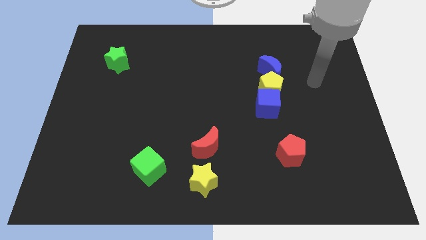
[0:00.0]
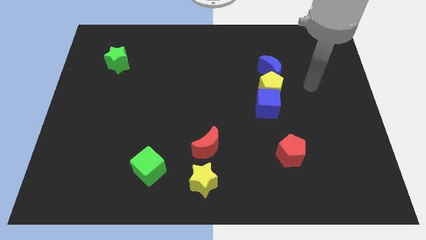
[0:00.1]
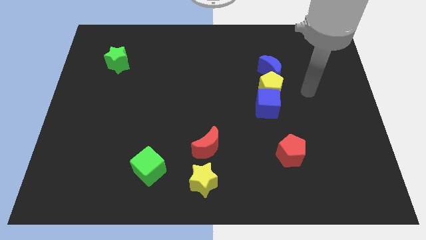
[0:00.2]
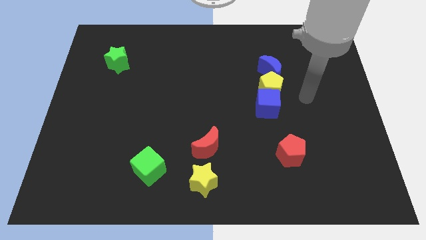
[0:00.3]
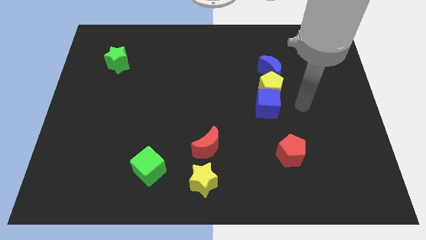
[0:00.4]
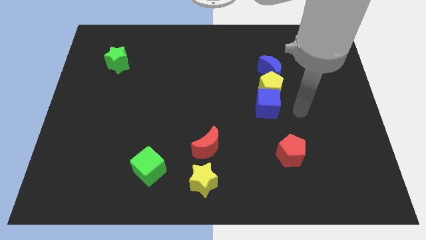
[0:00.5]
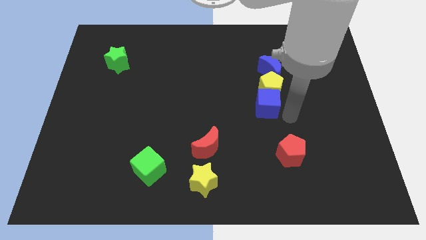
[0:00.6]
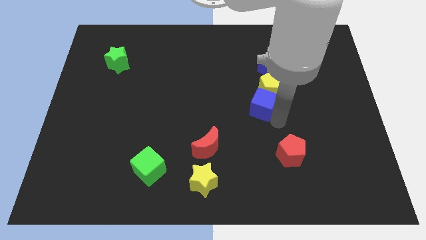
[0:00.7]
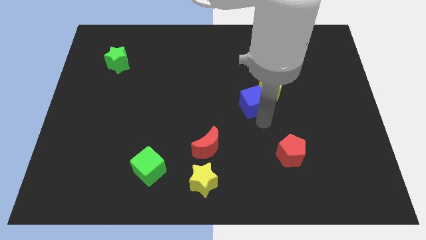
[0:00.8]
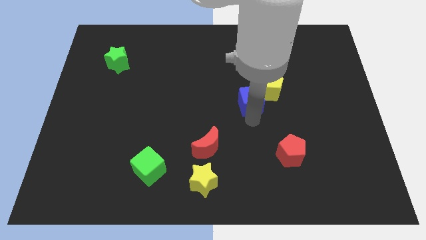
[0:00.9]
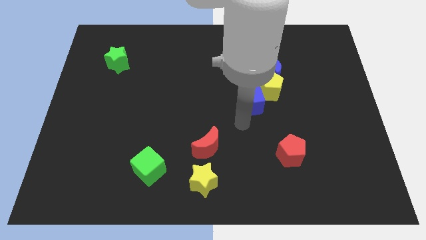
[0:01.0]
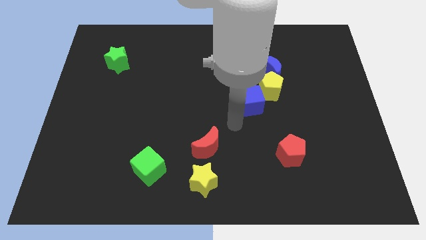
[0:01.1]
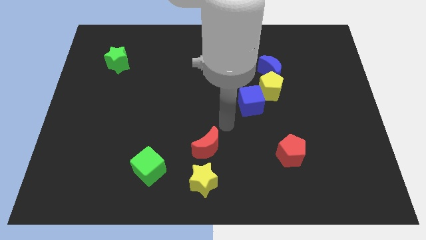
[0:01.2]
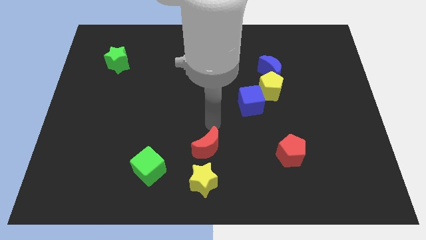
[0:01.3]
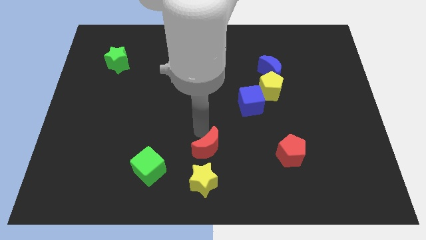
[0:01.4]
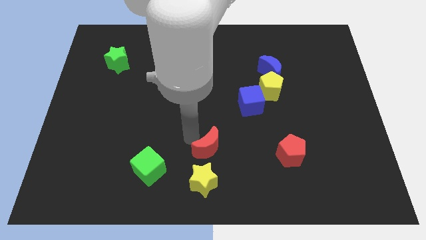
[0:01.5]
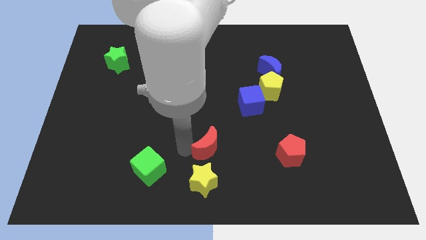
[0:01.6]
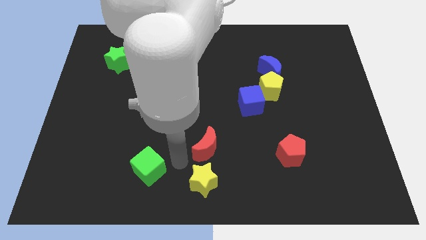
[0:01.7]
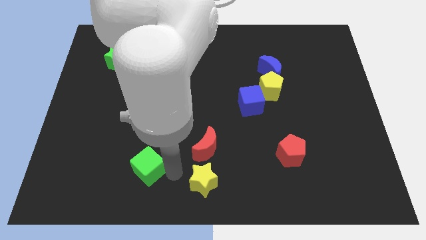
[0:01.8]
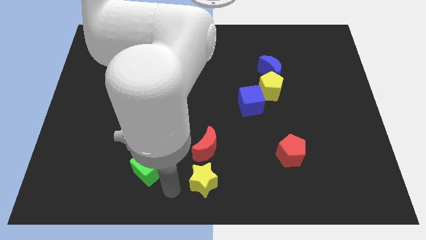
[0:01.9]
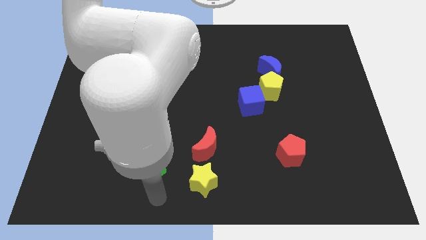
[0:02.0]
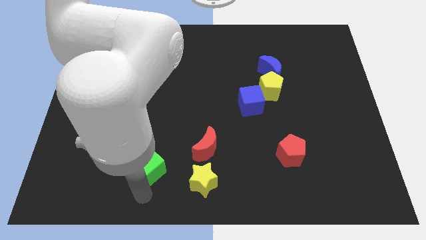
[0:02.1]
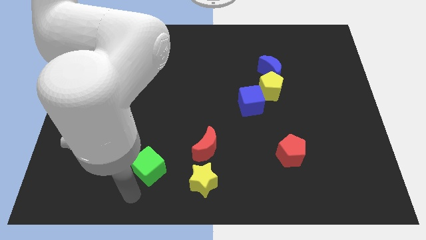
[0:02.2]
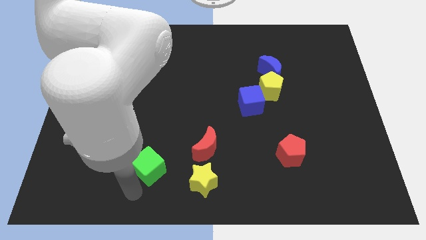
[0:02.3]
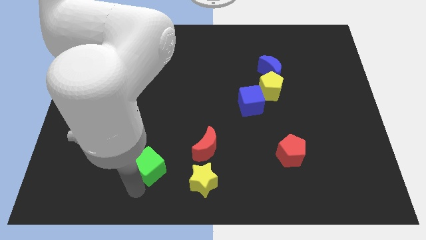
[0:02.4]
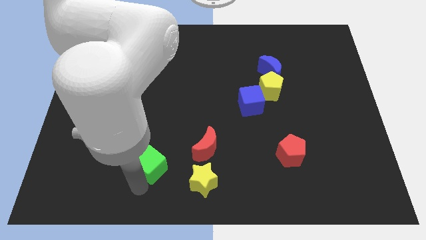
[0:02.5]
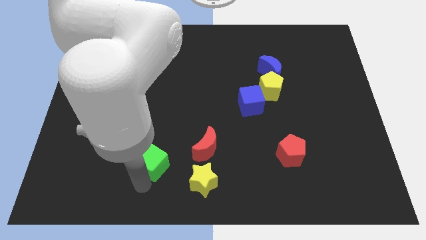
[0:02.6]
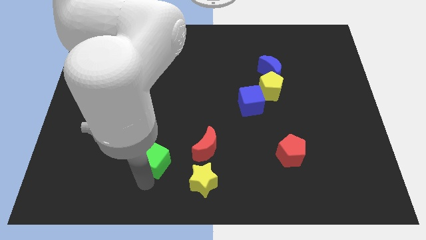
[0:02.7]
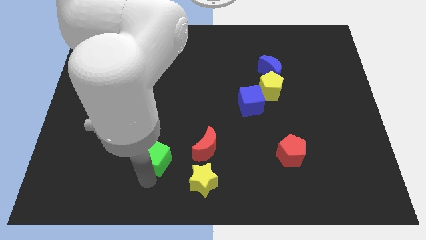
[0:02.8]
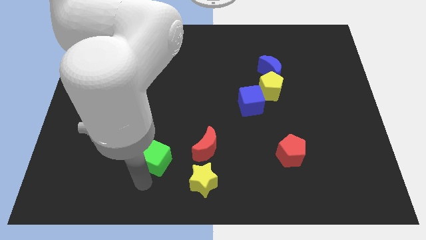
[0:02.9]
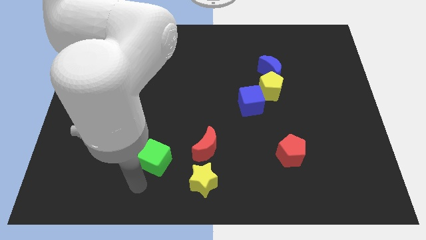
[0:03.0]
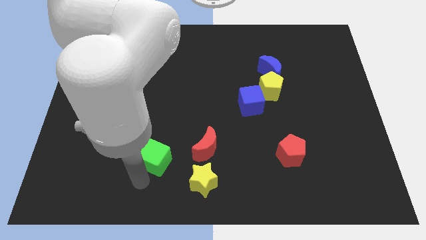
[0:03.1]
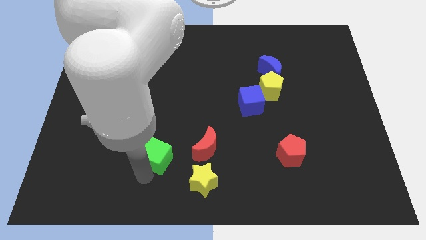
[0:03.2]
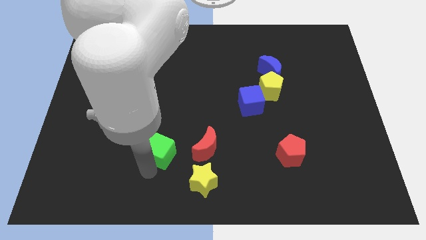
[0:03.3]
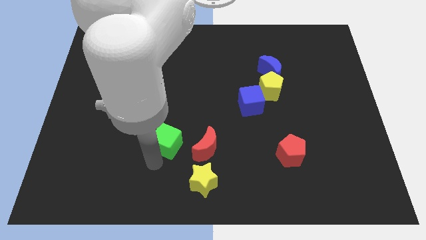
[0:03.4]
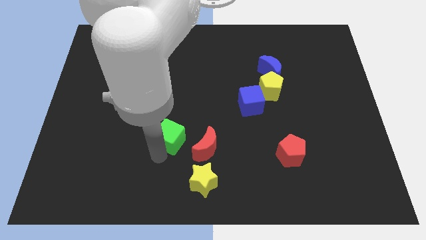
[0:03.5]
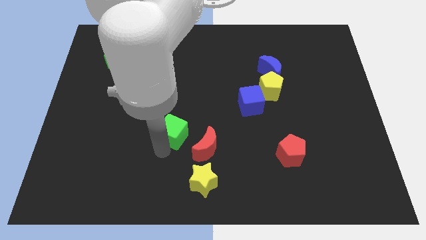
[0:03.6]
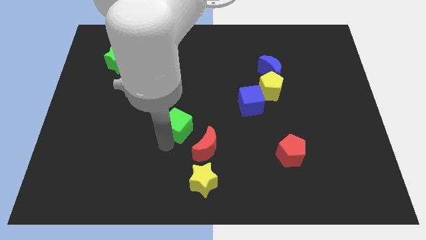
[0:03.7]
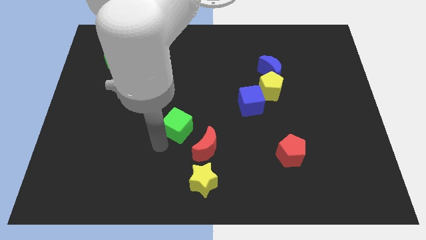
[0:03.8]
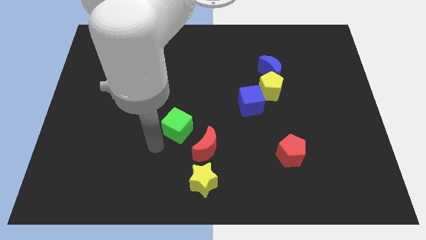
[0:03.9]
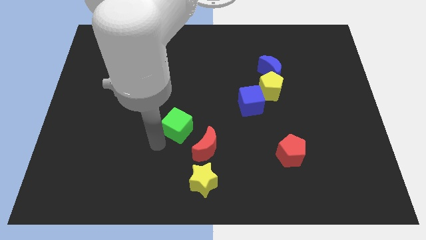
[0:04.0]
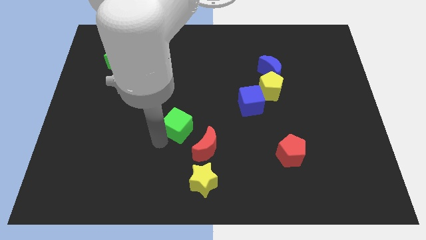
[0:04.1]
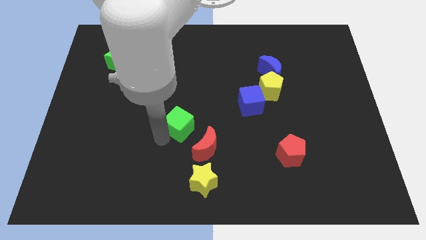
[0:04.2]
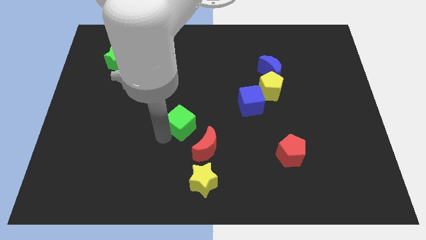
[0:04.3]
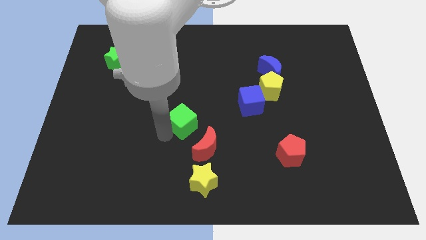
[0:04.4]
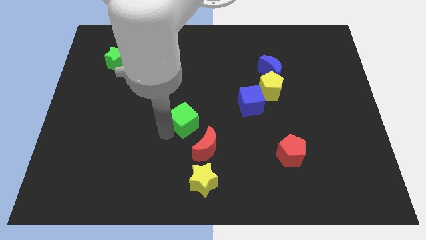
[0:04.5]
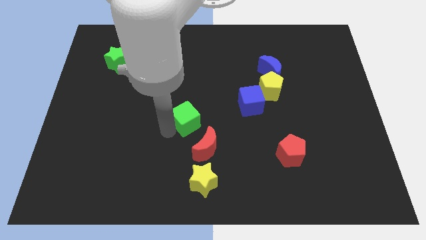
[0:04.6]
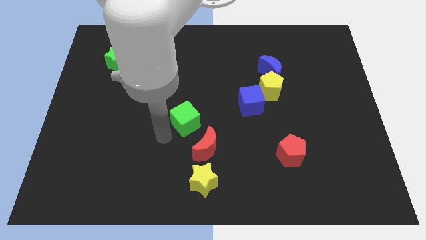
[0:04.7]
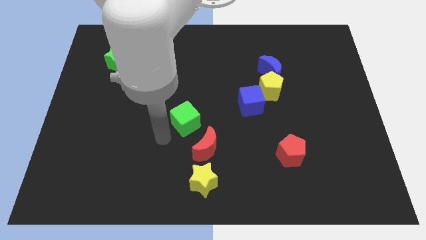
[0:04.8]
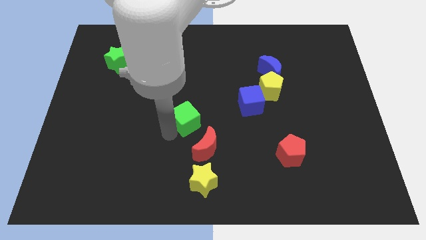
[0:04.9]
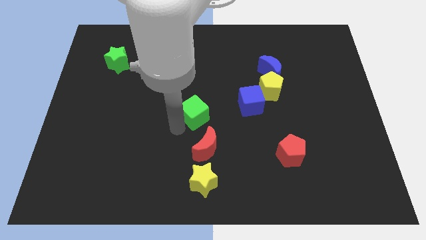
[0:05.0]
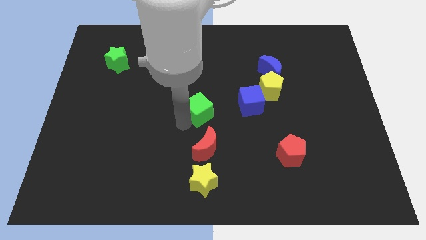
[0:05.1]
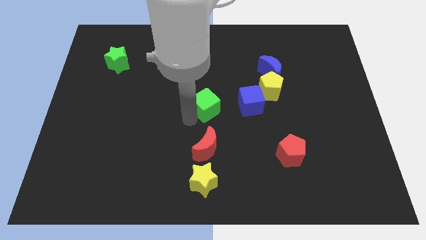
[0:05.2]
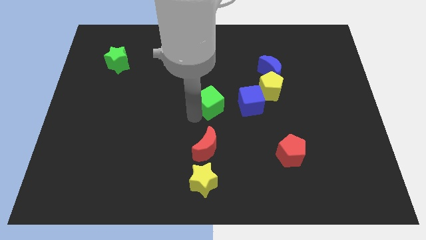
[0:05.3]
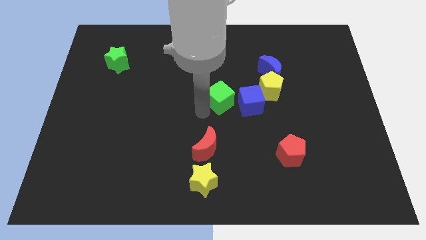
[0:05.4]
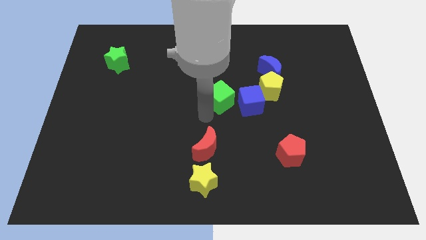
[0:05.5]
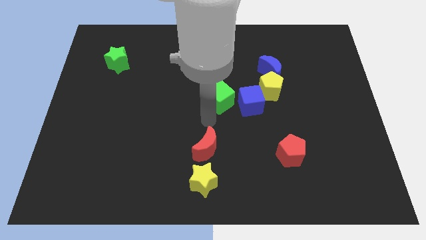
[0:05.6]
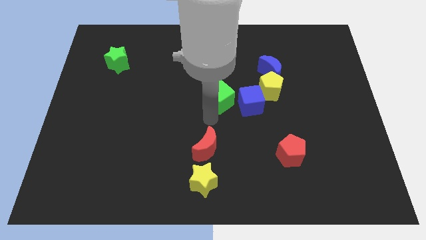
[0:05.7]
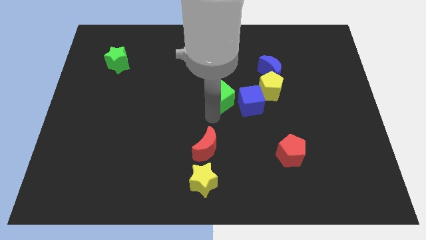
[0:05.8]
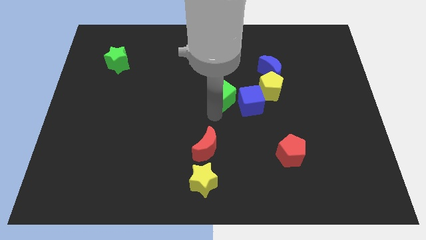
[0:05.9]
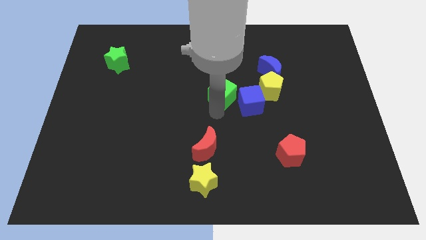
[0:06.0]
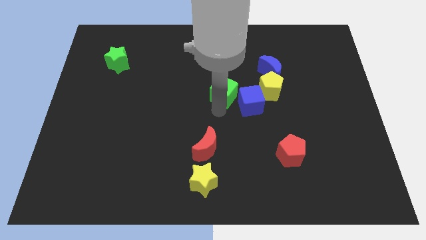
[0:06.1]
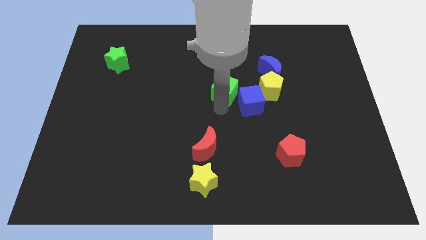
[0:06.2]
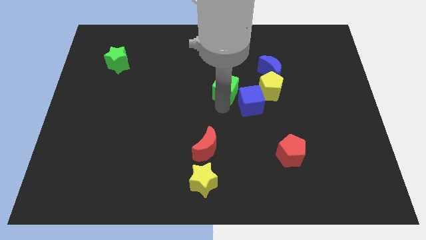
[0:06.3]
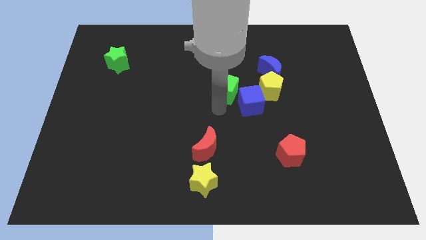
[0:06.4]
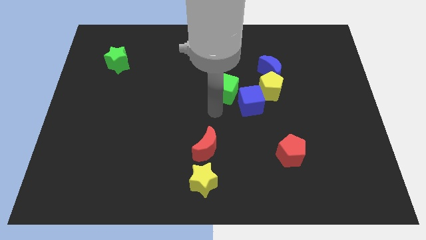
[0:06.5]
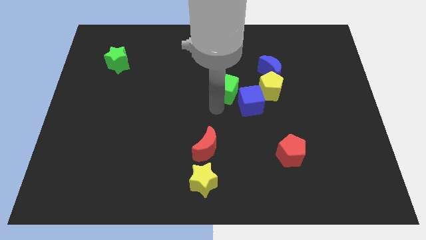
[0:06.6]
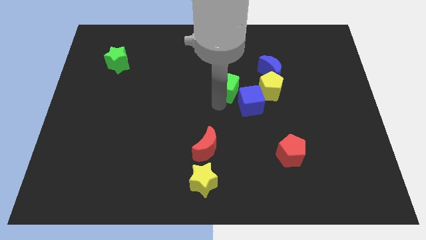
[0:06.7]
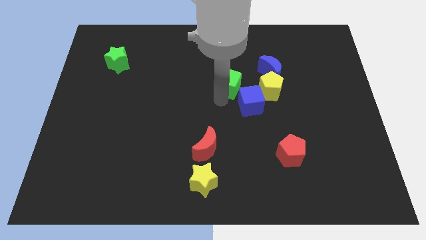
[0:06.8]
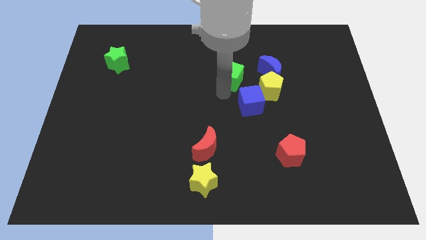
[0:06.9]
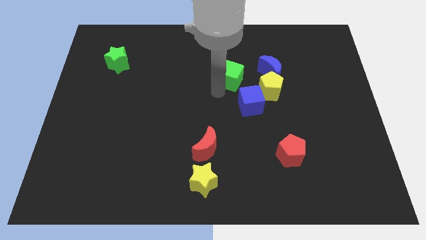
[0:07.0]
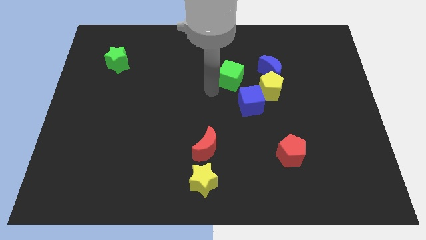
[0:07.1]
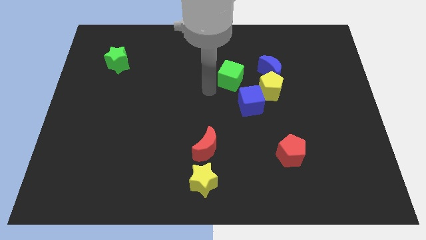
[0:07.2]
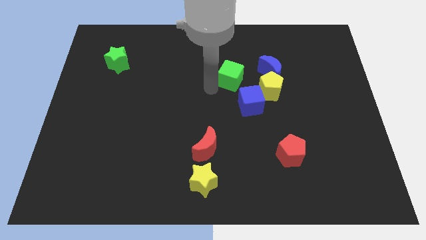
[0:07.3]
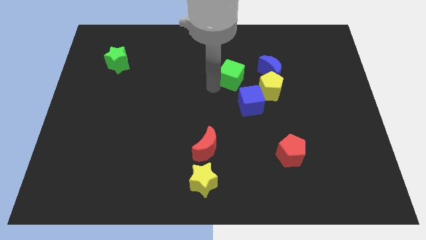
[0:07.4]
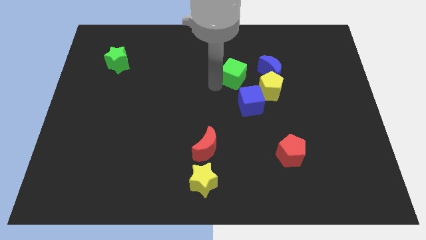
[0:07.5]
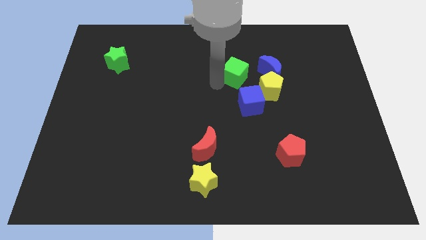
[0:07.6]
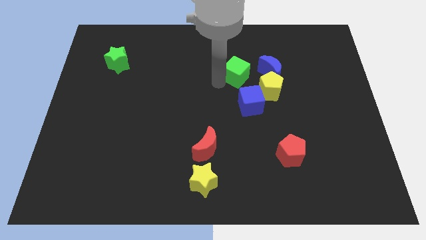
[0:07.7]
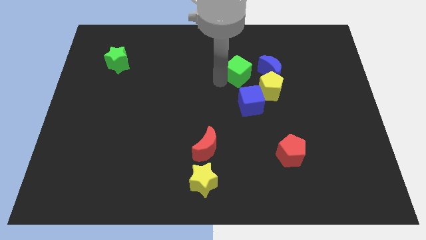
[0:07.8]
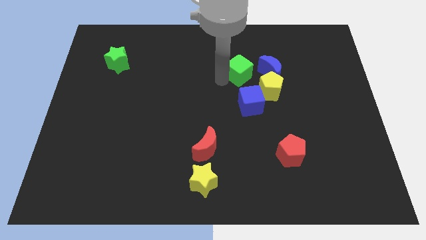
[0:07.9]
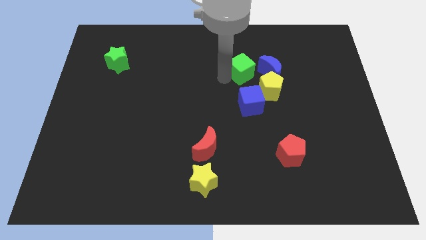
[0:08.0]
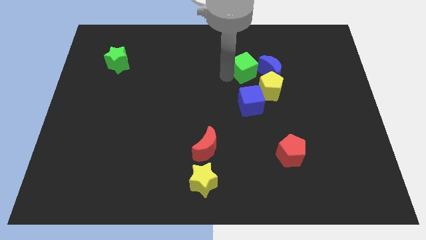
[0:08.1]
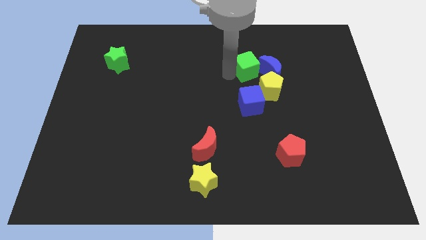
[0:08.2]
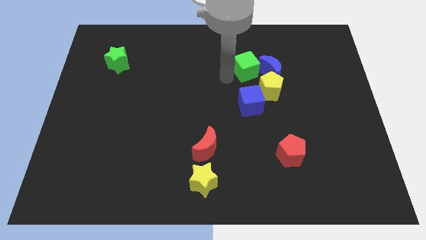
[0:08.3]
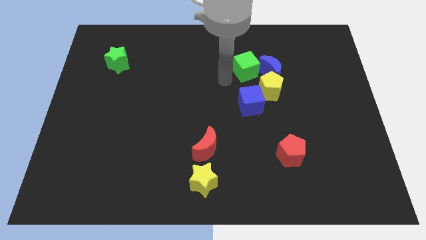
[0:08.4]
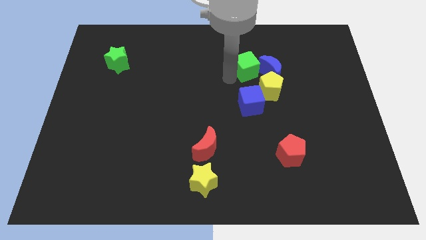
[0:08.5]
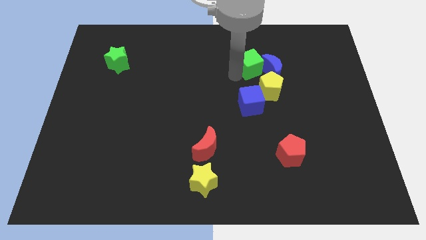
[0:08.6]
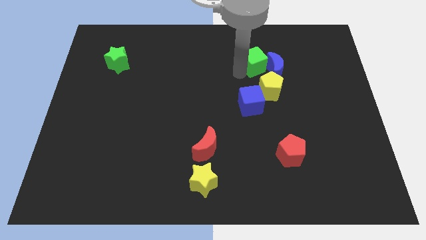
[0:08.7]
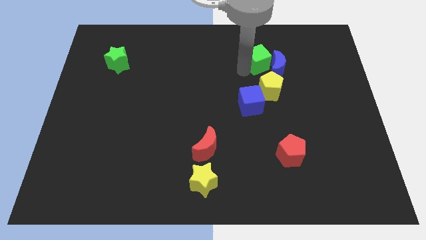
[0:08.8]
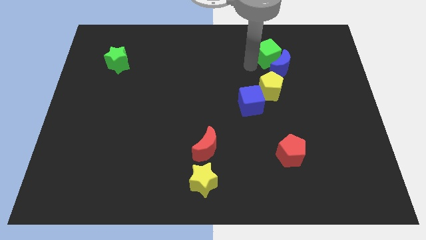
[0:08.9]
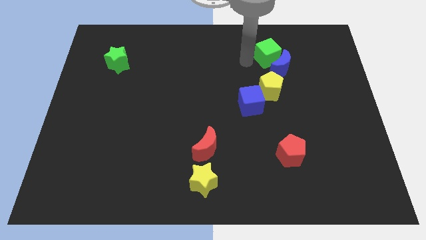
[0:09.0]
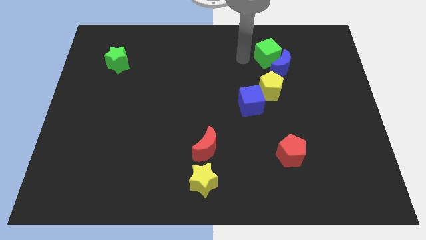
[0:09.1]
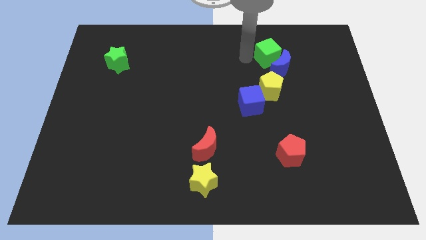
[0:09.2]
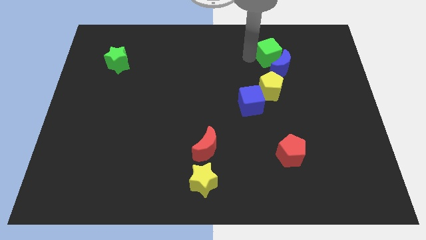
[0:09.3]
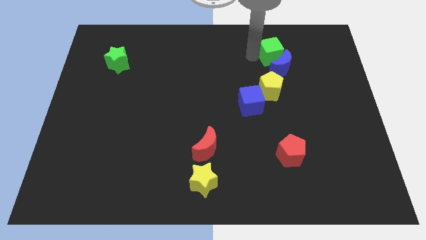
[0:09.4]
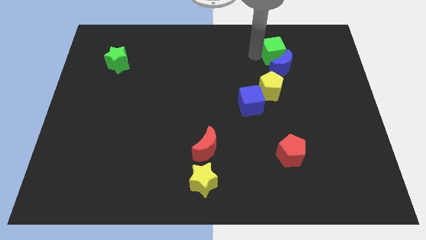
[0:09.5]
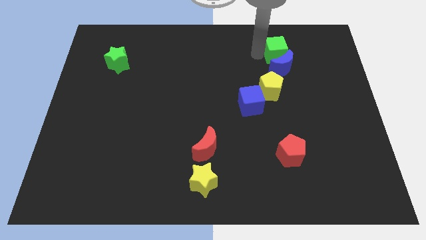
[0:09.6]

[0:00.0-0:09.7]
move the green cube to the top right side of the blue moon
